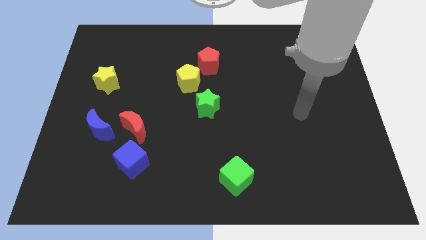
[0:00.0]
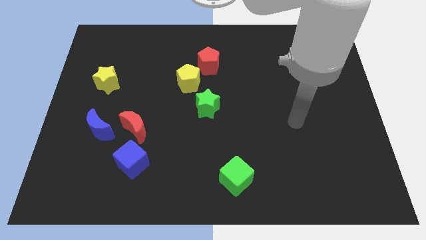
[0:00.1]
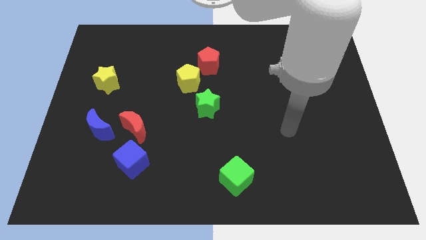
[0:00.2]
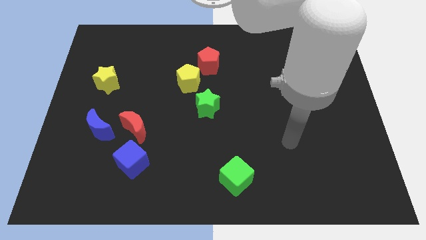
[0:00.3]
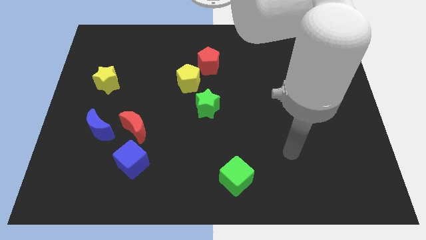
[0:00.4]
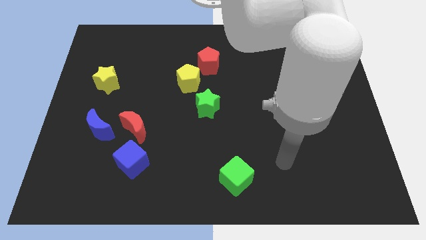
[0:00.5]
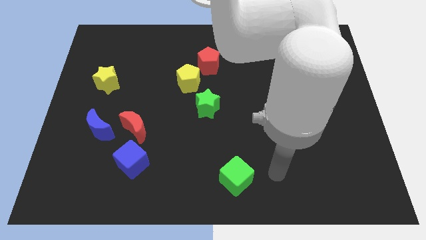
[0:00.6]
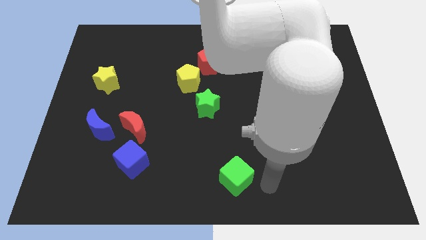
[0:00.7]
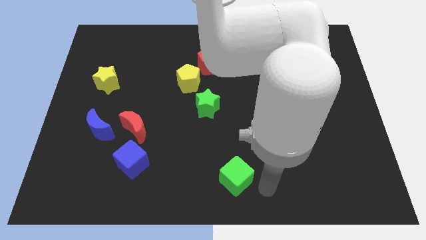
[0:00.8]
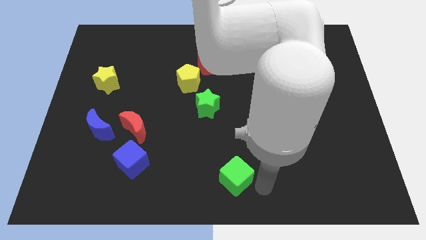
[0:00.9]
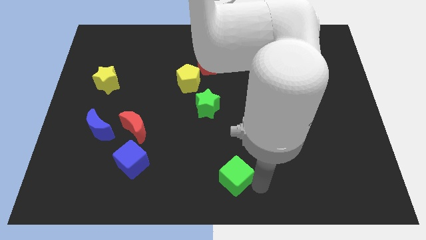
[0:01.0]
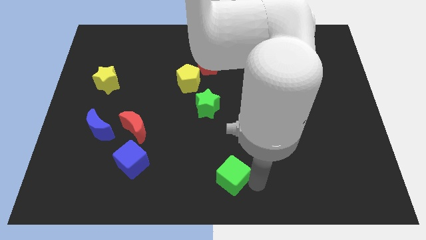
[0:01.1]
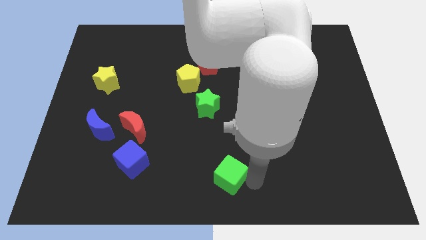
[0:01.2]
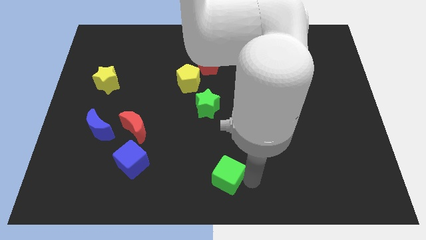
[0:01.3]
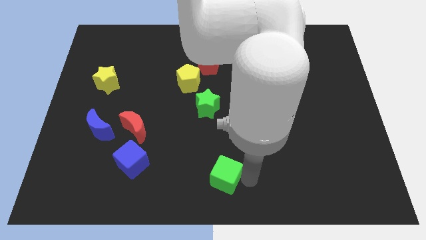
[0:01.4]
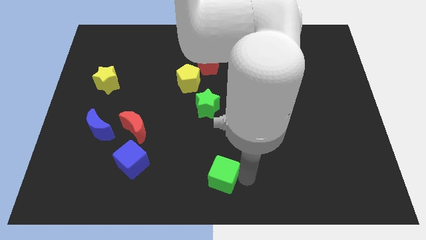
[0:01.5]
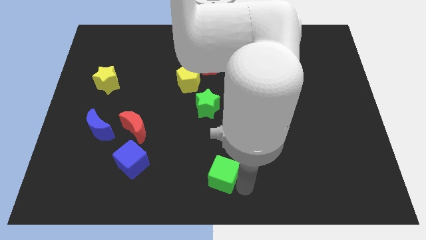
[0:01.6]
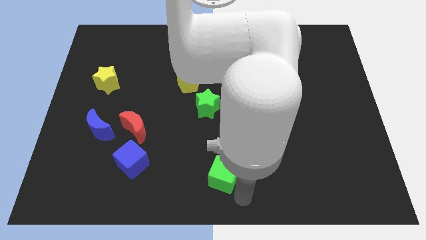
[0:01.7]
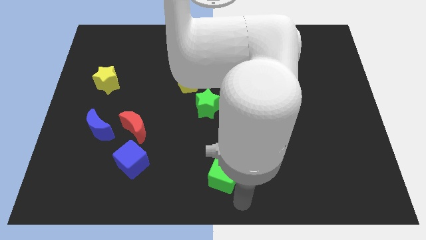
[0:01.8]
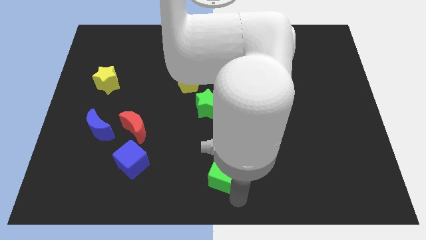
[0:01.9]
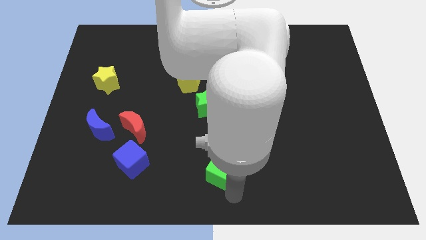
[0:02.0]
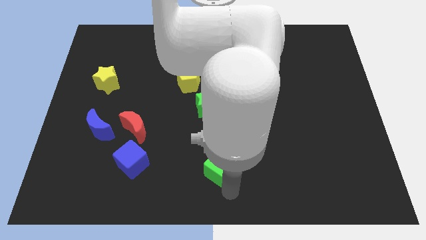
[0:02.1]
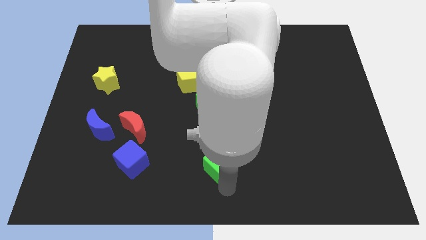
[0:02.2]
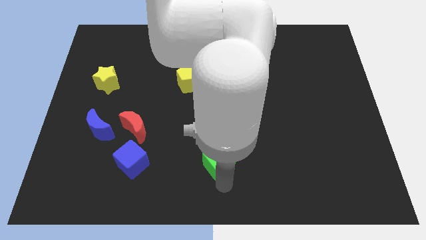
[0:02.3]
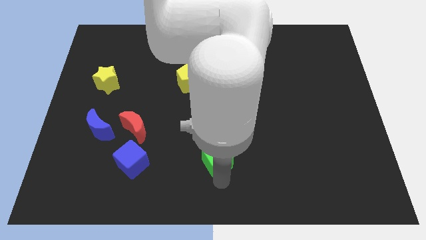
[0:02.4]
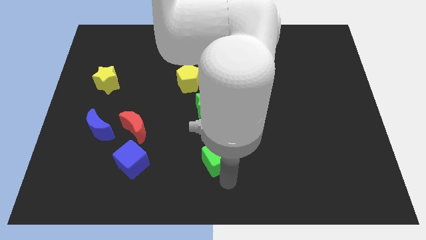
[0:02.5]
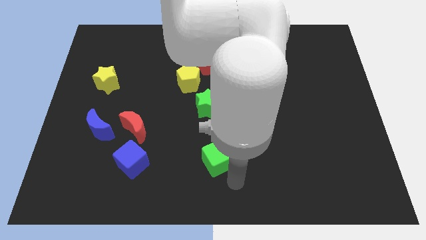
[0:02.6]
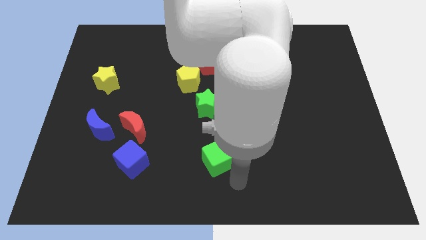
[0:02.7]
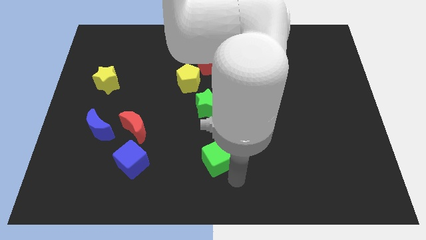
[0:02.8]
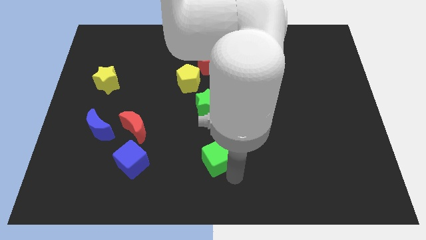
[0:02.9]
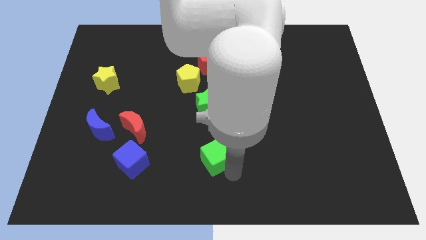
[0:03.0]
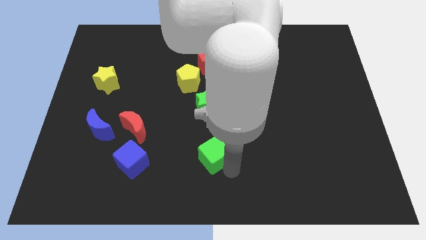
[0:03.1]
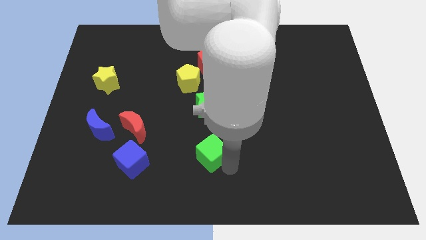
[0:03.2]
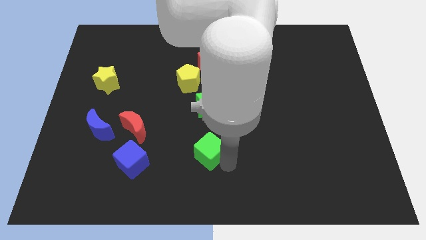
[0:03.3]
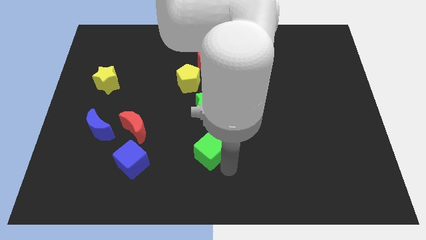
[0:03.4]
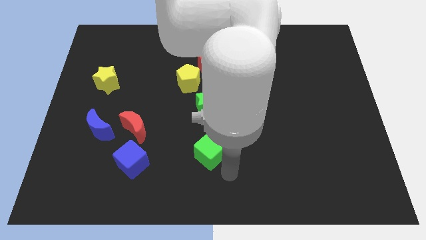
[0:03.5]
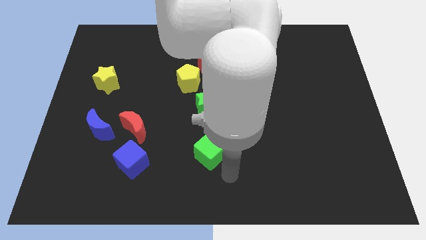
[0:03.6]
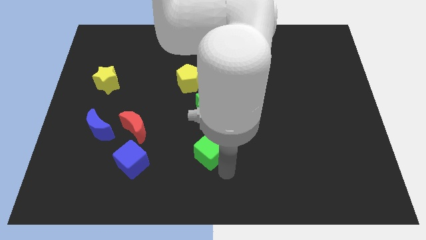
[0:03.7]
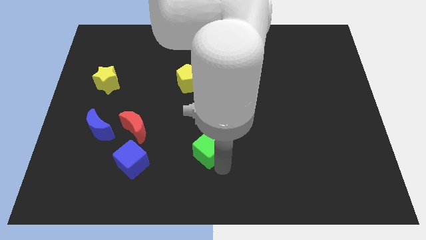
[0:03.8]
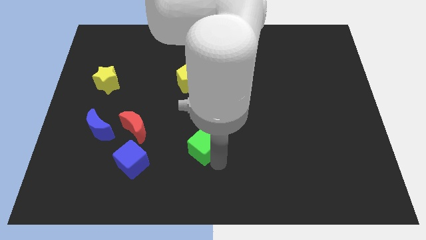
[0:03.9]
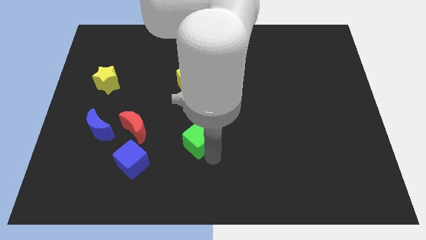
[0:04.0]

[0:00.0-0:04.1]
push the green cube to the right of the red moon

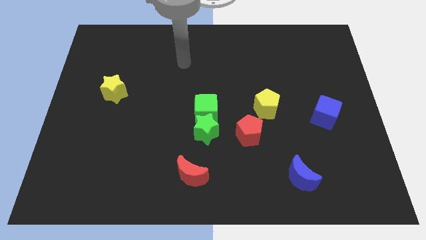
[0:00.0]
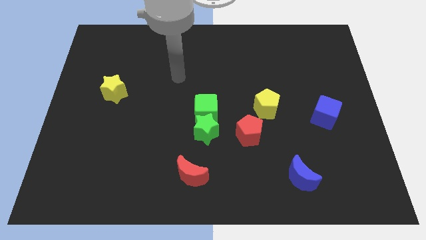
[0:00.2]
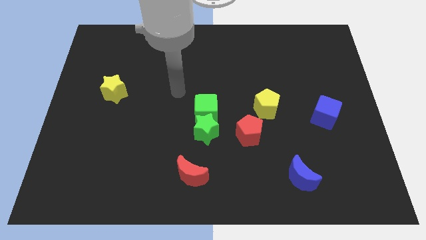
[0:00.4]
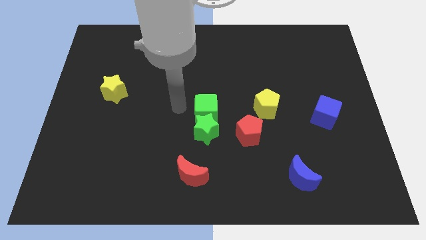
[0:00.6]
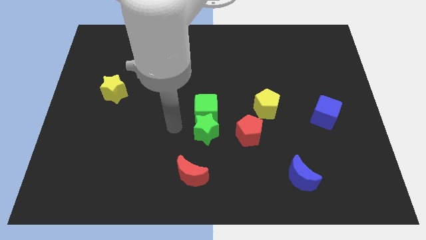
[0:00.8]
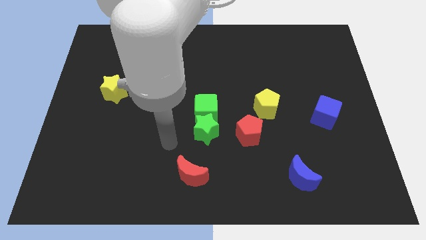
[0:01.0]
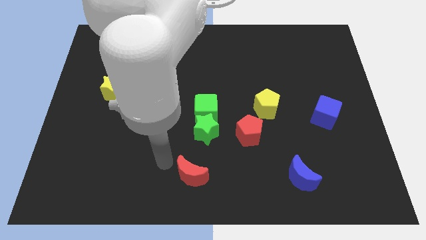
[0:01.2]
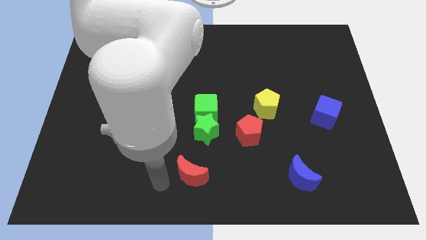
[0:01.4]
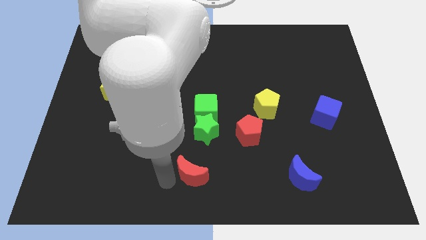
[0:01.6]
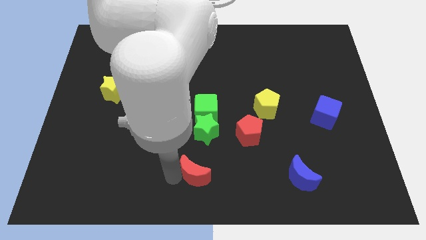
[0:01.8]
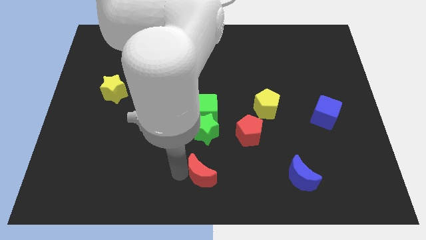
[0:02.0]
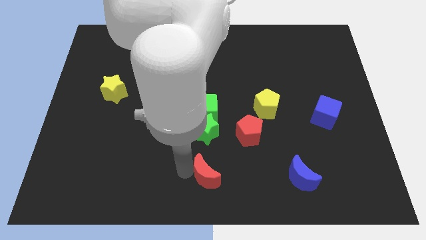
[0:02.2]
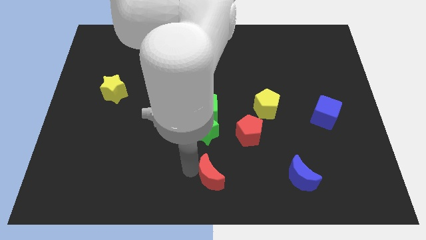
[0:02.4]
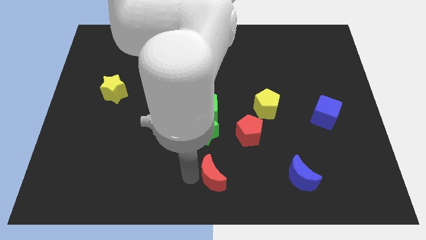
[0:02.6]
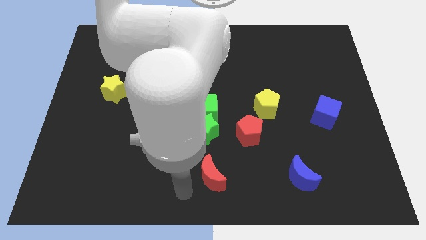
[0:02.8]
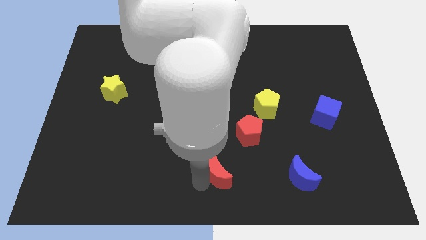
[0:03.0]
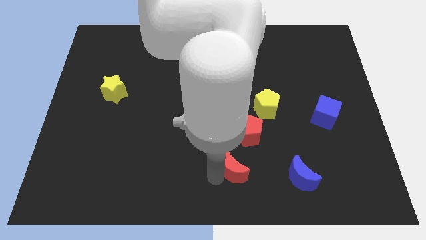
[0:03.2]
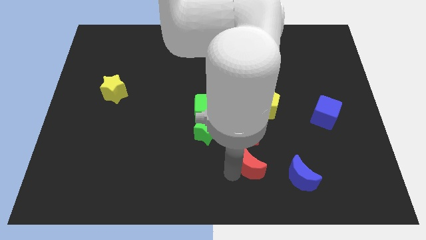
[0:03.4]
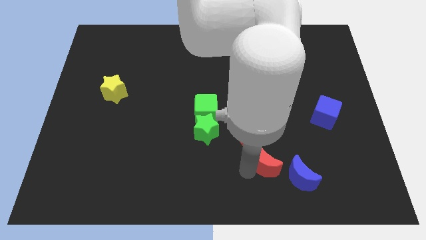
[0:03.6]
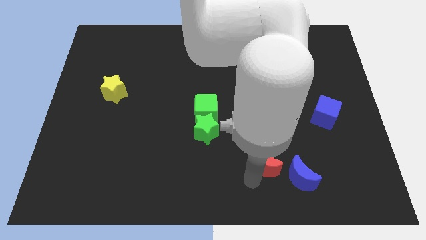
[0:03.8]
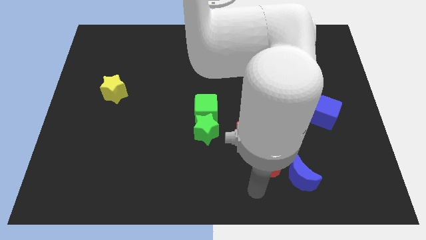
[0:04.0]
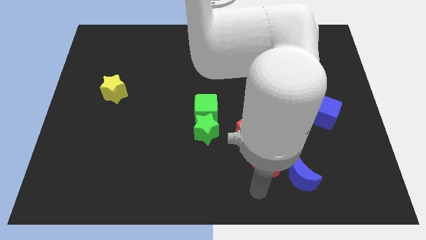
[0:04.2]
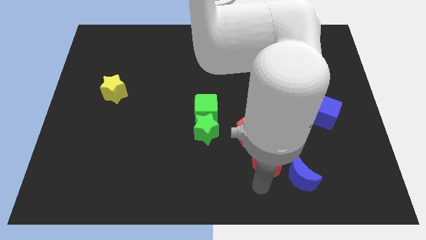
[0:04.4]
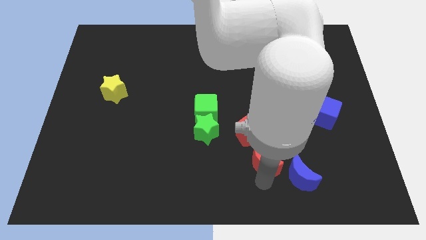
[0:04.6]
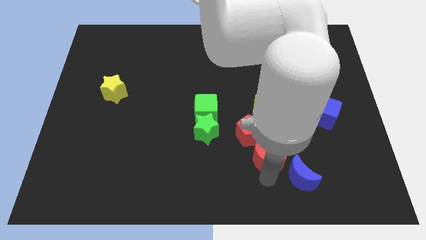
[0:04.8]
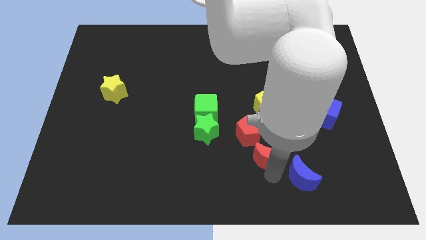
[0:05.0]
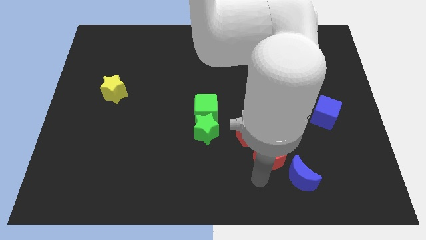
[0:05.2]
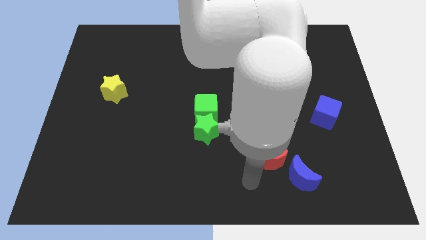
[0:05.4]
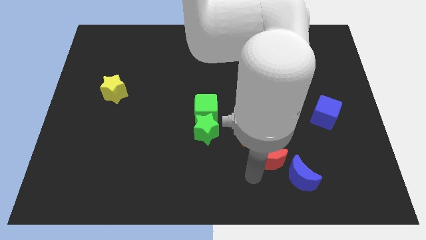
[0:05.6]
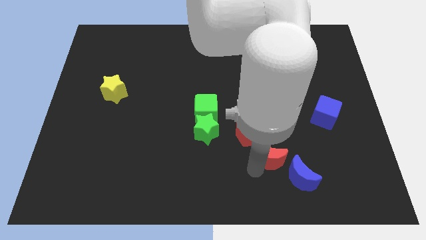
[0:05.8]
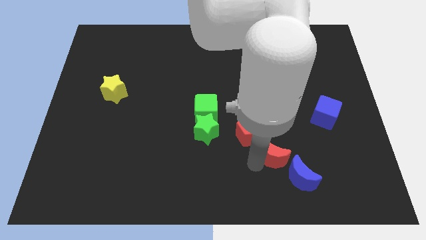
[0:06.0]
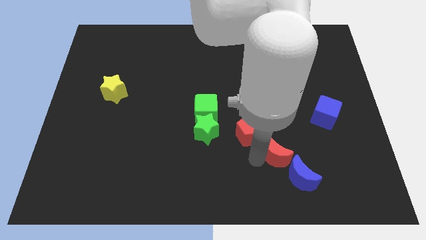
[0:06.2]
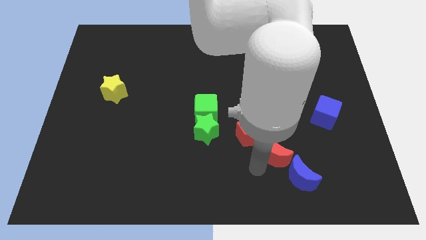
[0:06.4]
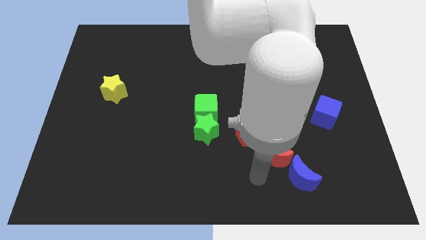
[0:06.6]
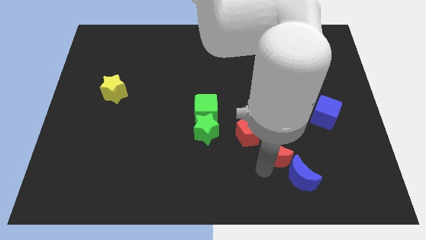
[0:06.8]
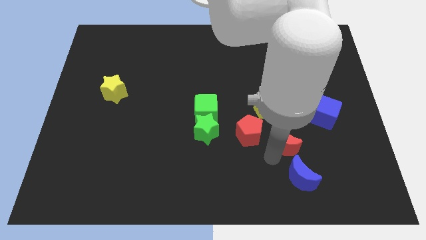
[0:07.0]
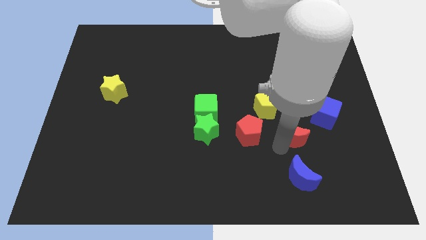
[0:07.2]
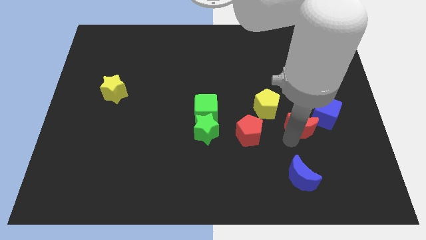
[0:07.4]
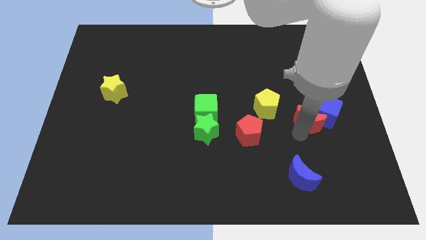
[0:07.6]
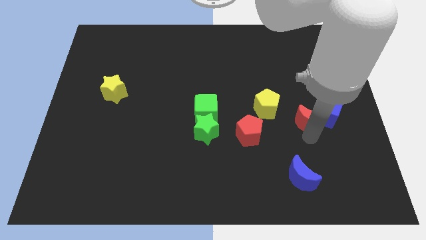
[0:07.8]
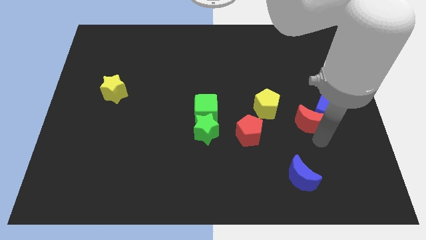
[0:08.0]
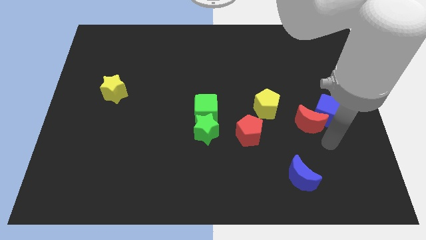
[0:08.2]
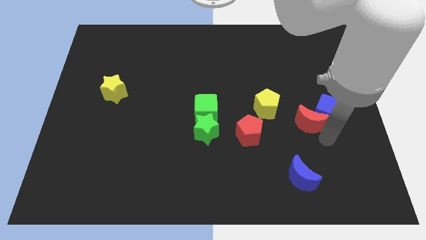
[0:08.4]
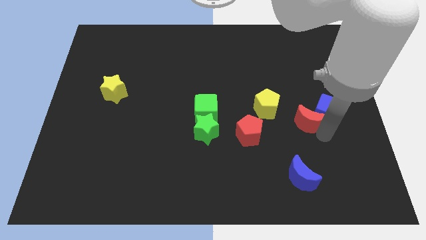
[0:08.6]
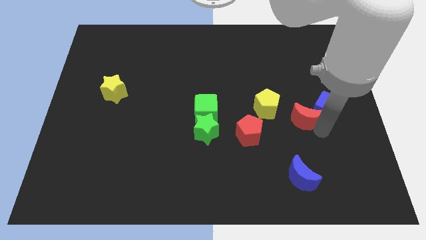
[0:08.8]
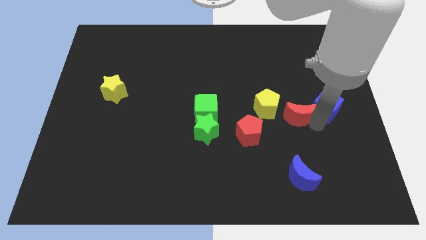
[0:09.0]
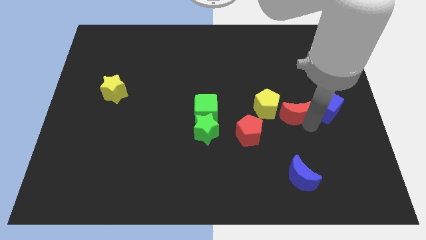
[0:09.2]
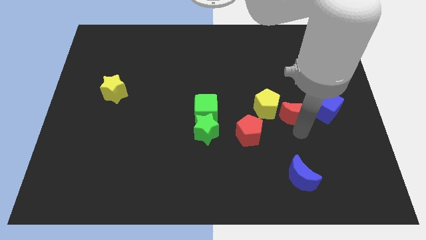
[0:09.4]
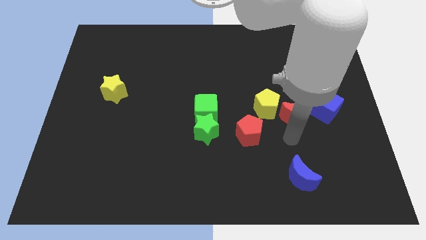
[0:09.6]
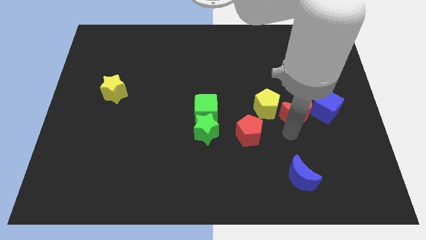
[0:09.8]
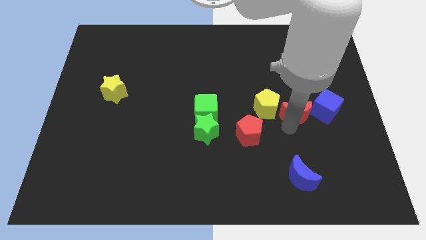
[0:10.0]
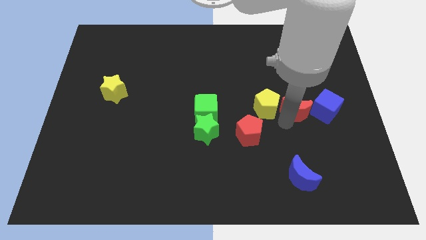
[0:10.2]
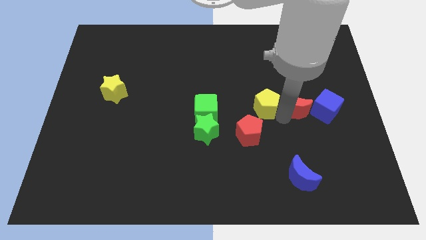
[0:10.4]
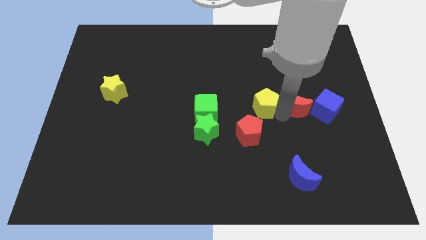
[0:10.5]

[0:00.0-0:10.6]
push the red moon diagonally up and to the left of the blue cube
